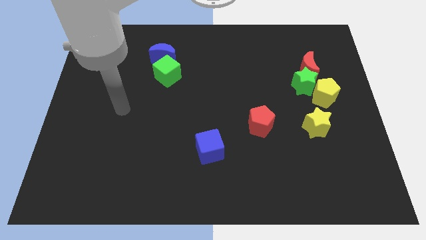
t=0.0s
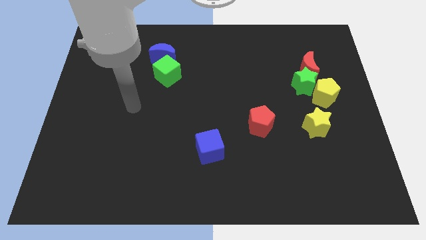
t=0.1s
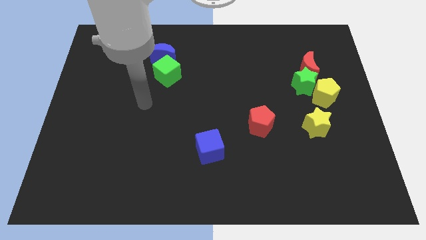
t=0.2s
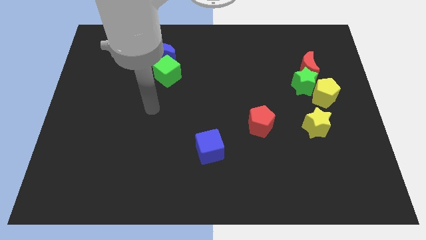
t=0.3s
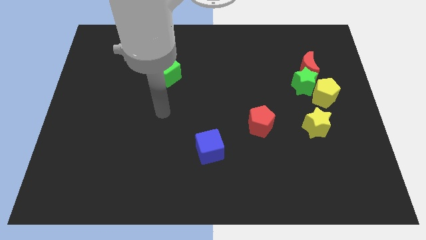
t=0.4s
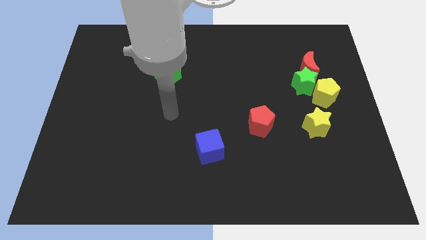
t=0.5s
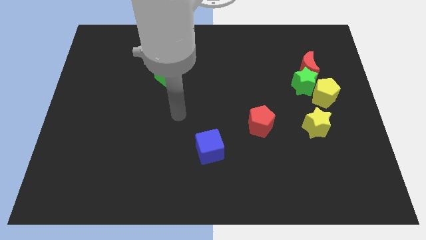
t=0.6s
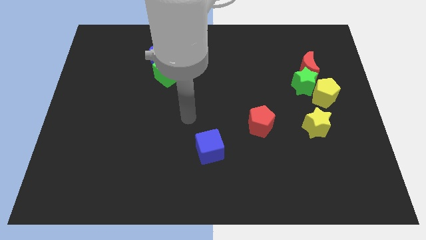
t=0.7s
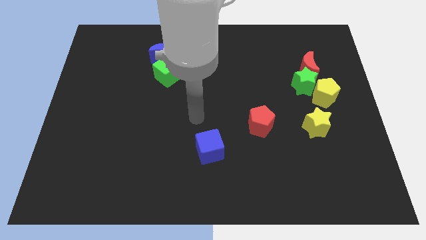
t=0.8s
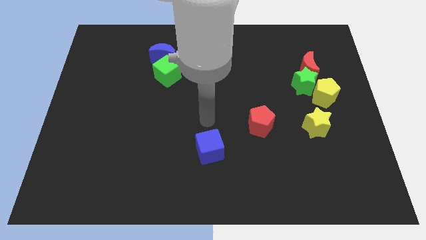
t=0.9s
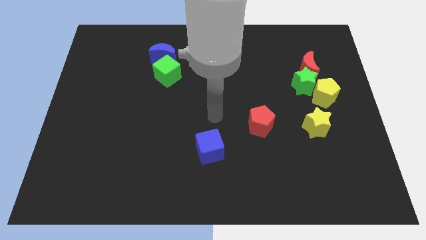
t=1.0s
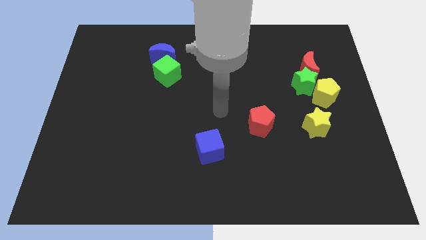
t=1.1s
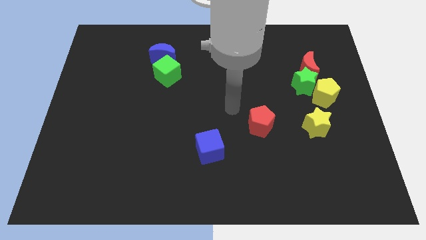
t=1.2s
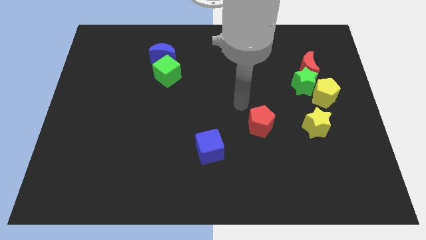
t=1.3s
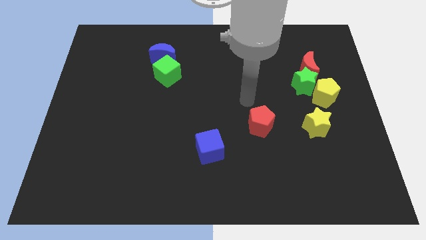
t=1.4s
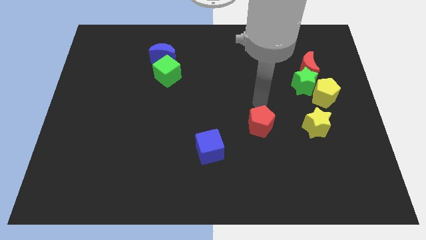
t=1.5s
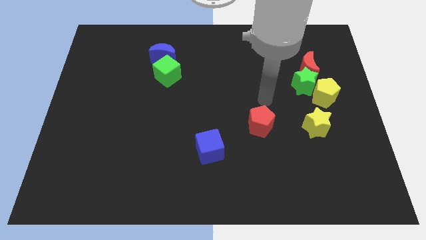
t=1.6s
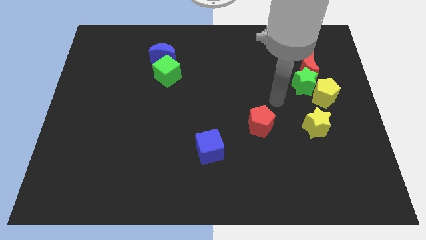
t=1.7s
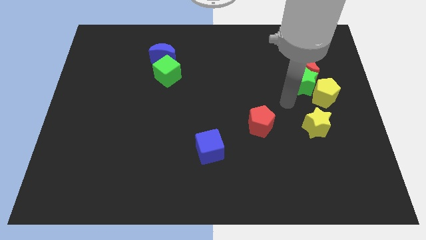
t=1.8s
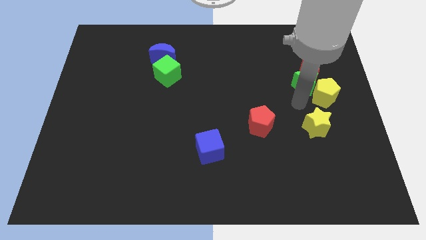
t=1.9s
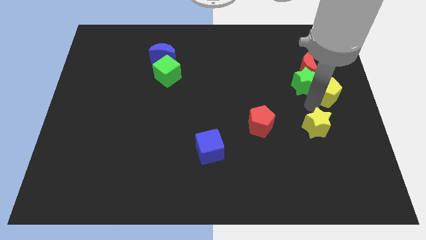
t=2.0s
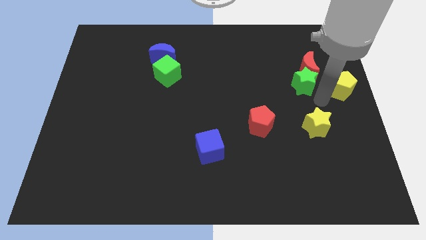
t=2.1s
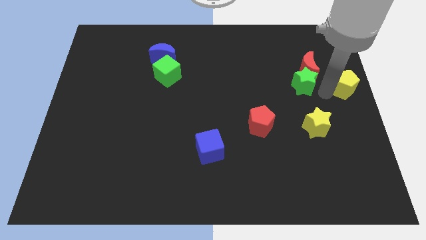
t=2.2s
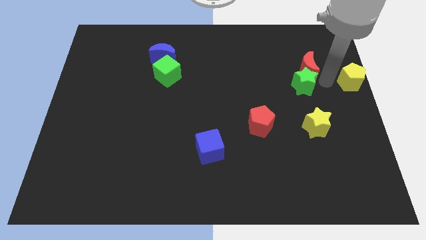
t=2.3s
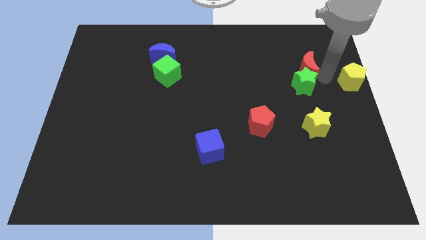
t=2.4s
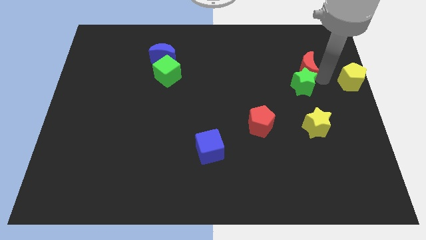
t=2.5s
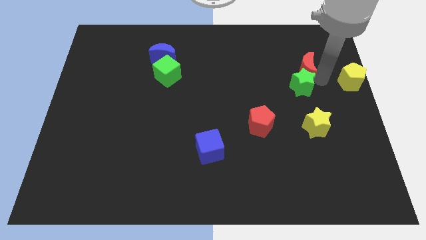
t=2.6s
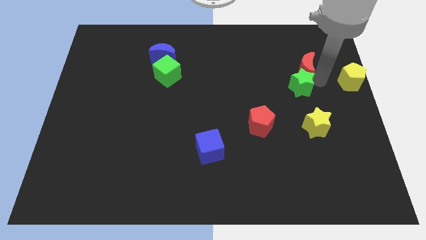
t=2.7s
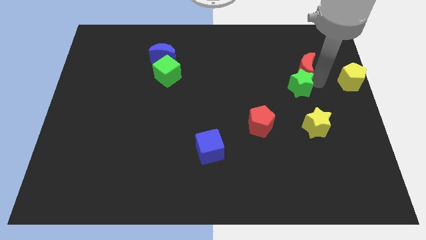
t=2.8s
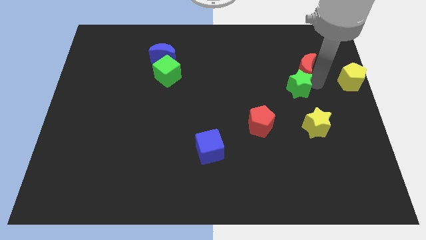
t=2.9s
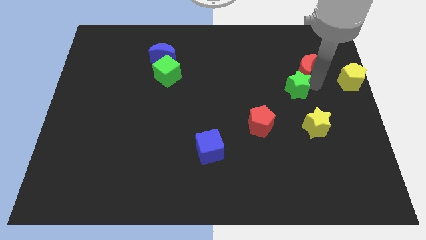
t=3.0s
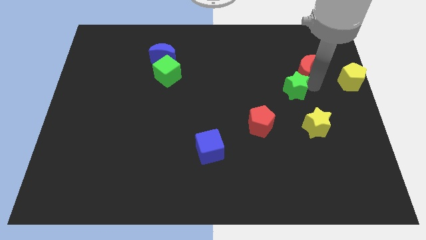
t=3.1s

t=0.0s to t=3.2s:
separate the green star from the red moon and yellow pentagon

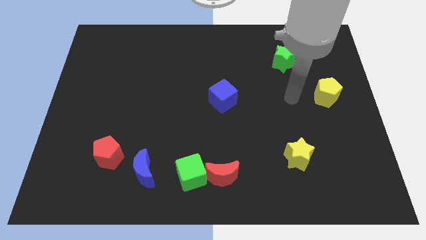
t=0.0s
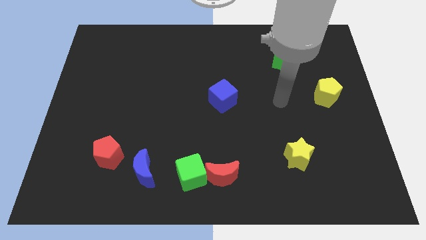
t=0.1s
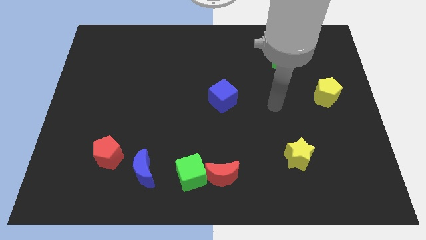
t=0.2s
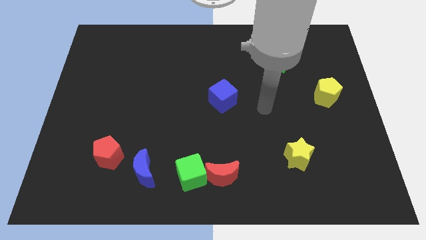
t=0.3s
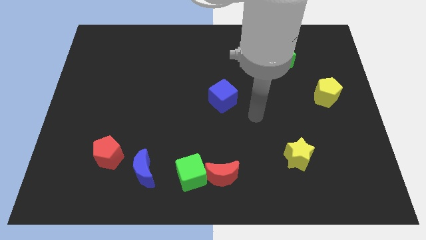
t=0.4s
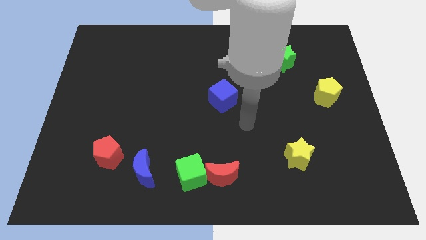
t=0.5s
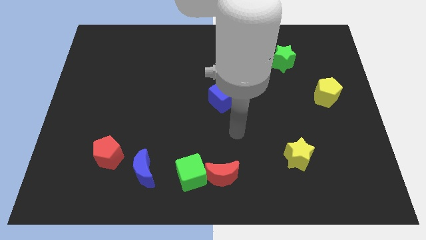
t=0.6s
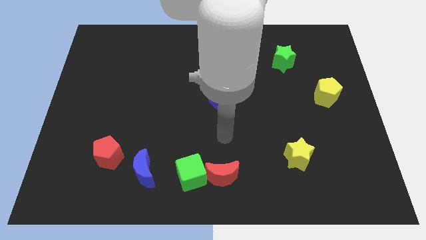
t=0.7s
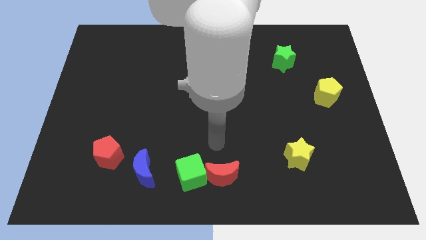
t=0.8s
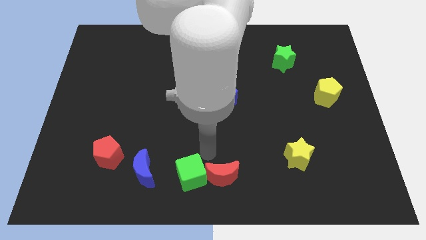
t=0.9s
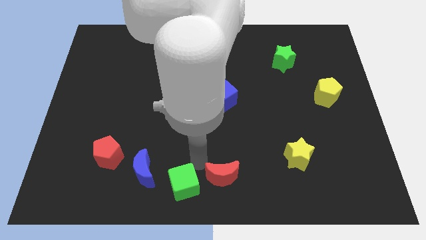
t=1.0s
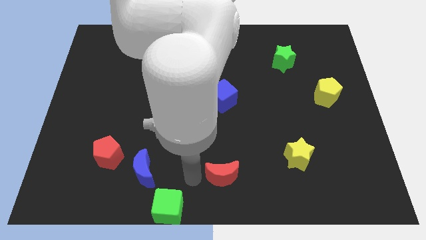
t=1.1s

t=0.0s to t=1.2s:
pull the red moon apart from the green cube

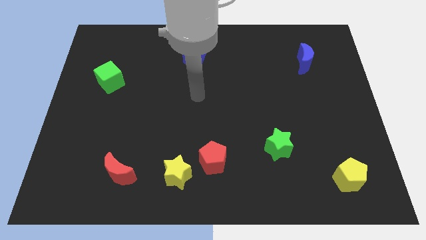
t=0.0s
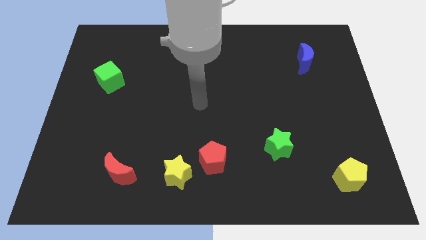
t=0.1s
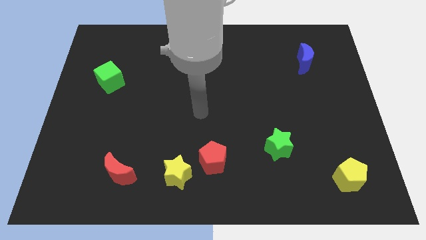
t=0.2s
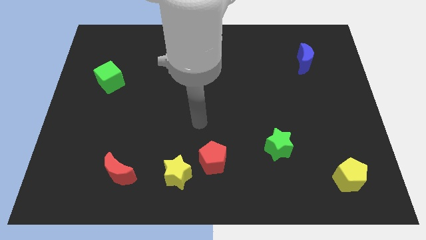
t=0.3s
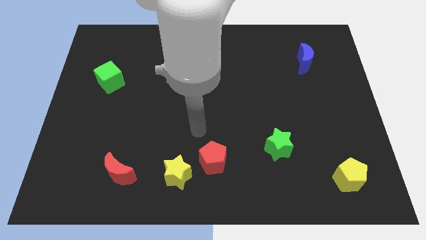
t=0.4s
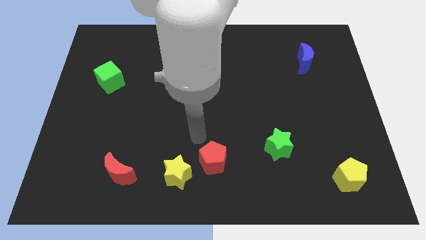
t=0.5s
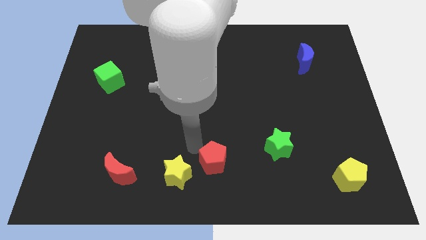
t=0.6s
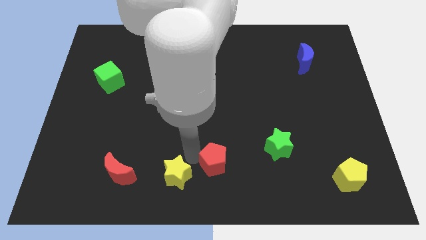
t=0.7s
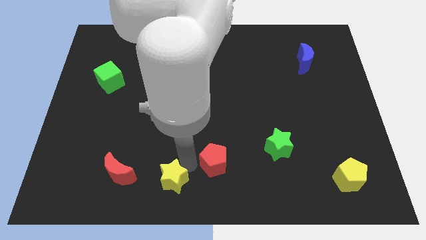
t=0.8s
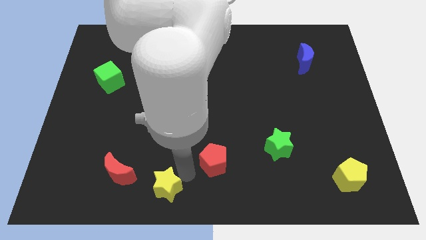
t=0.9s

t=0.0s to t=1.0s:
pull the red pentagon apart from the yellow star

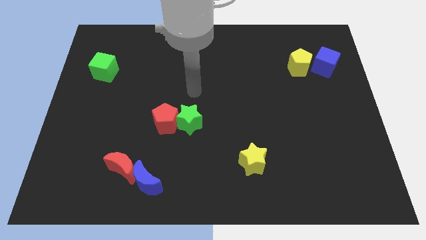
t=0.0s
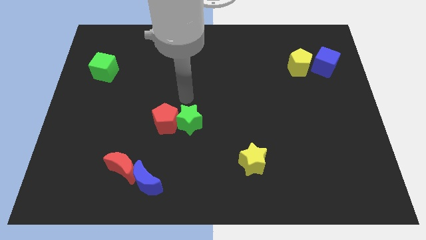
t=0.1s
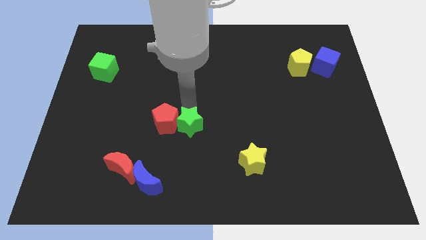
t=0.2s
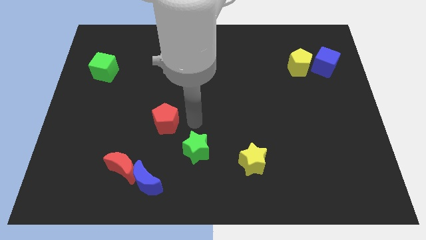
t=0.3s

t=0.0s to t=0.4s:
move the red pentagon away from the green star

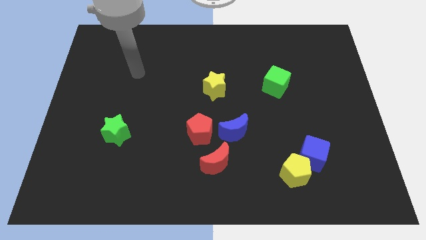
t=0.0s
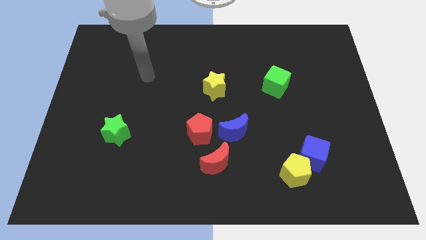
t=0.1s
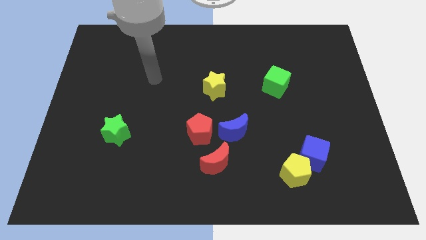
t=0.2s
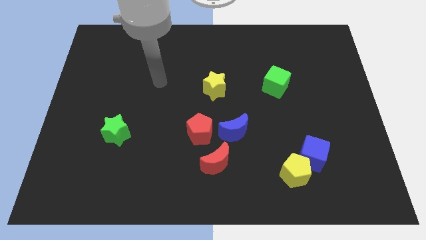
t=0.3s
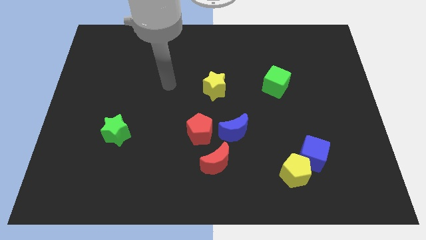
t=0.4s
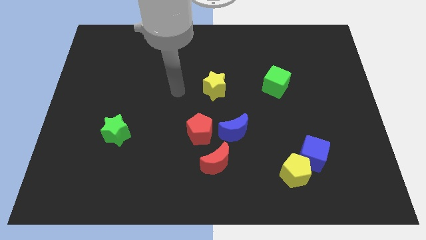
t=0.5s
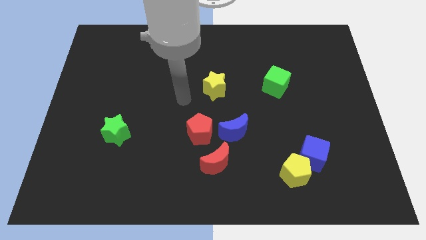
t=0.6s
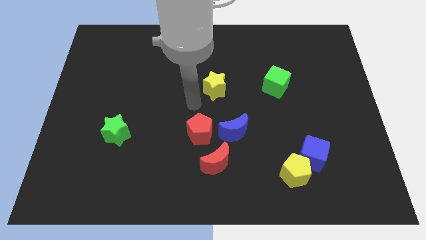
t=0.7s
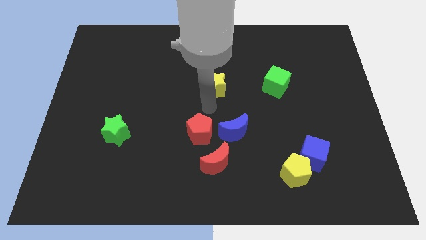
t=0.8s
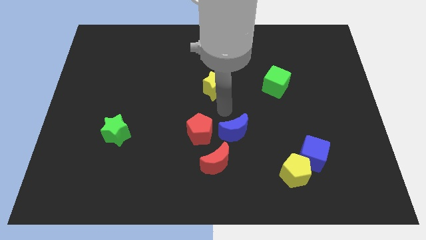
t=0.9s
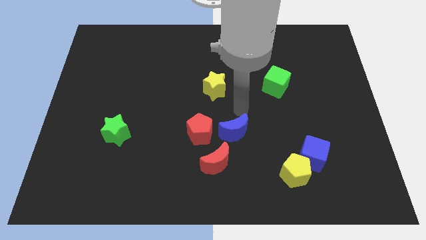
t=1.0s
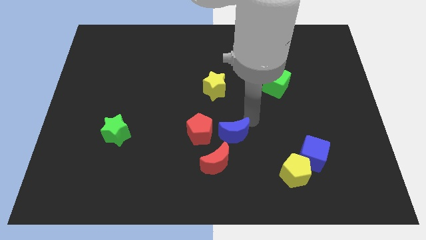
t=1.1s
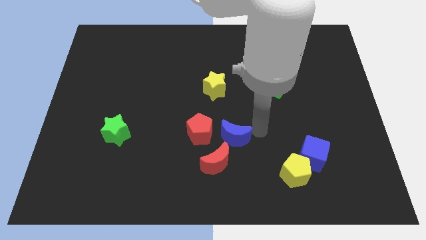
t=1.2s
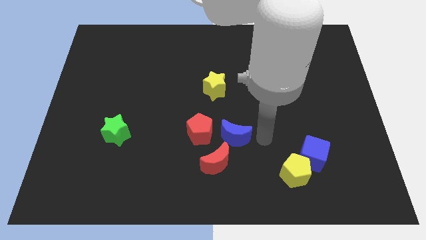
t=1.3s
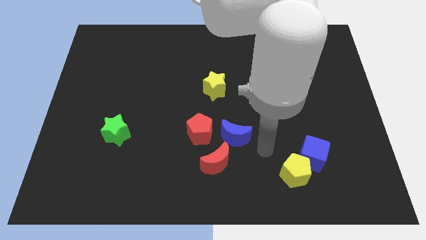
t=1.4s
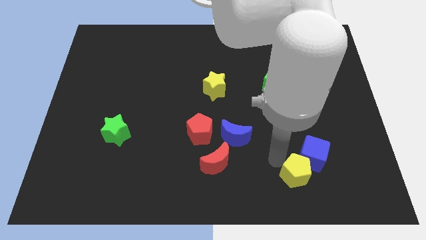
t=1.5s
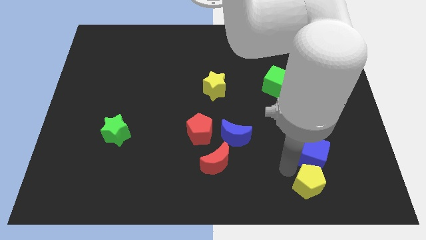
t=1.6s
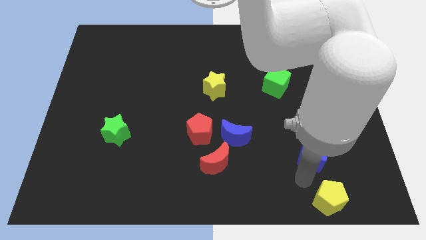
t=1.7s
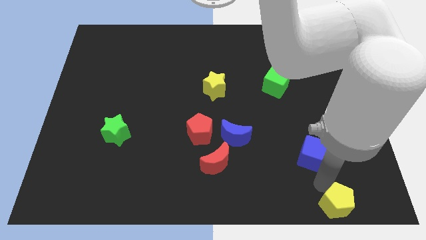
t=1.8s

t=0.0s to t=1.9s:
separate the blue cube from the yellow pentagon

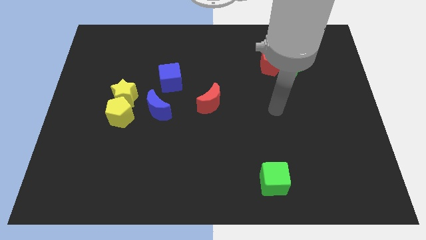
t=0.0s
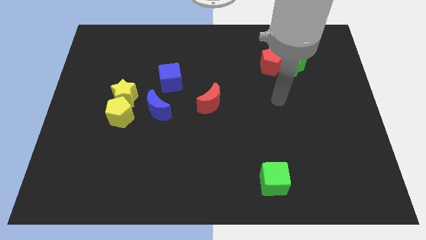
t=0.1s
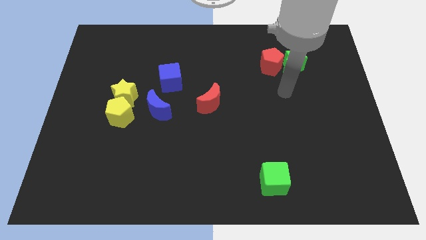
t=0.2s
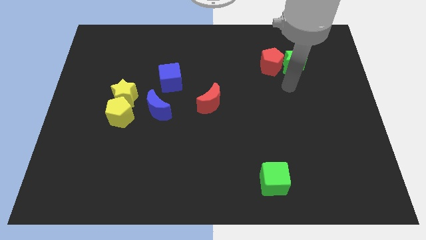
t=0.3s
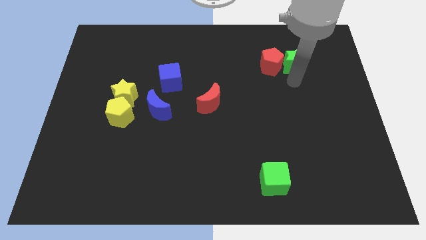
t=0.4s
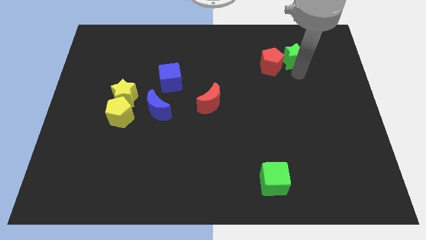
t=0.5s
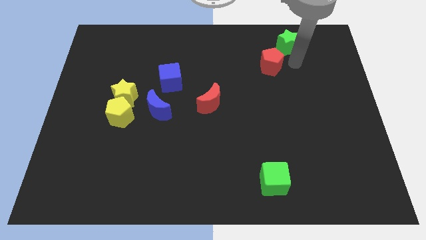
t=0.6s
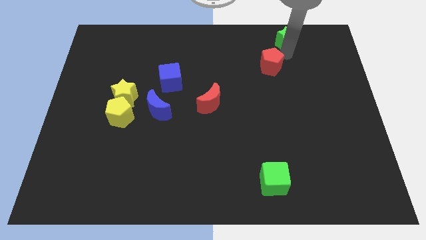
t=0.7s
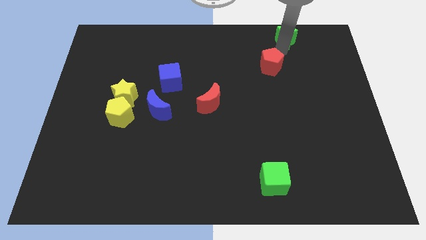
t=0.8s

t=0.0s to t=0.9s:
pull the red pentagon apart from the green star

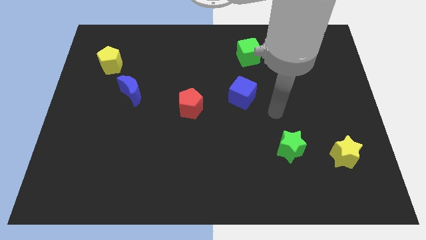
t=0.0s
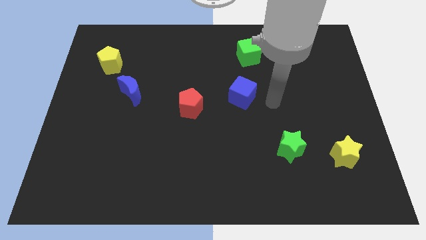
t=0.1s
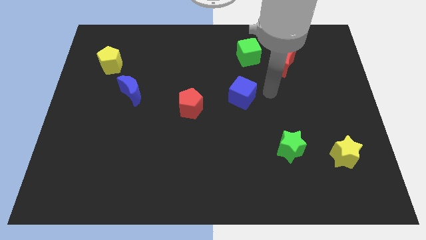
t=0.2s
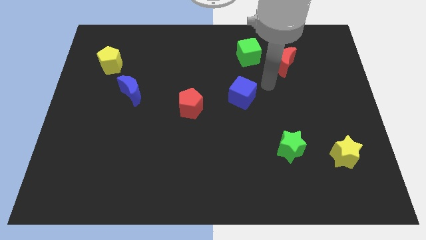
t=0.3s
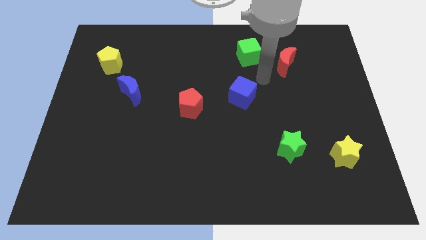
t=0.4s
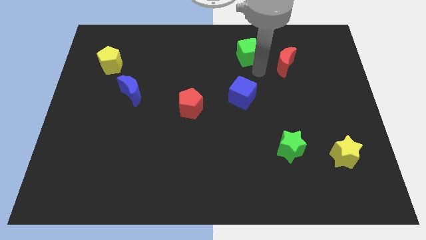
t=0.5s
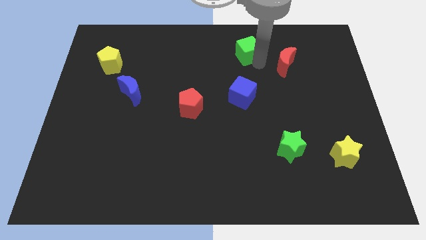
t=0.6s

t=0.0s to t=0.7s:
move the red moon away from the green cube
